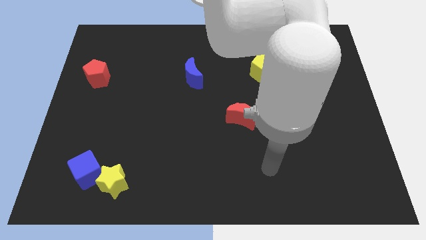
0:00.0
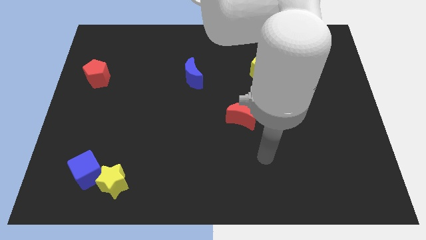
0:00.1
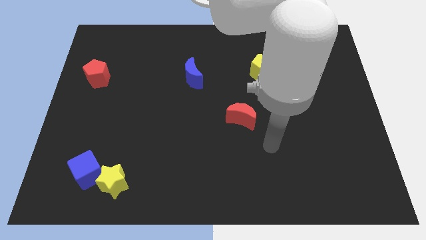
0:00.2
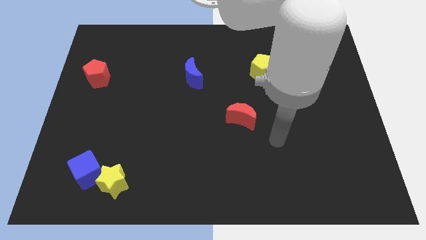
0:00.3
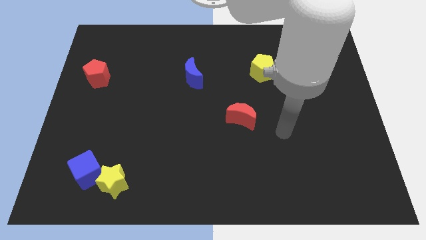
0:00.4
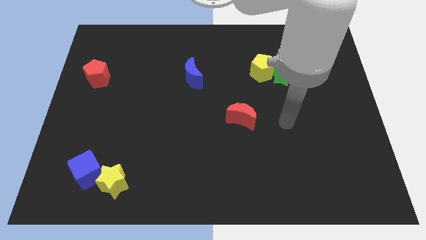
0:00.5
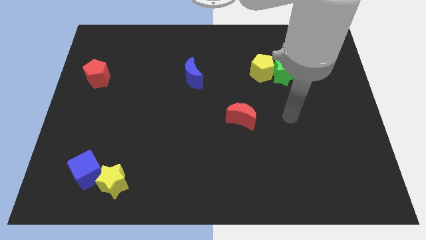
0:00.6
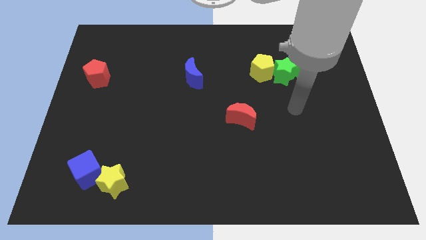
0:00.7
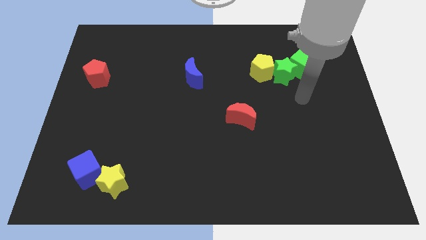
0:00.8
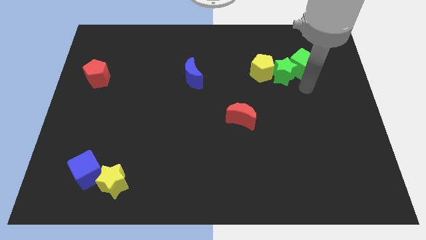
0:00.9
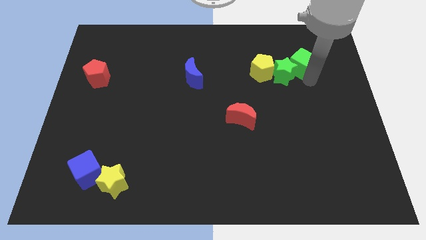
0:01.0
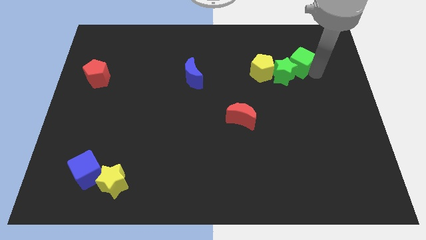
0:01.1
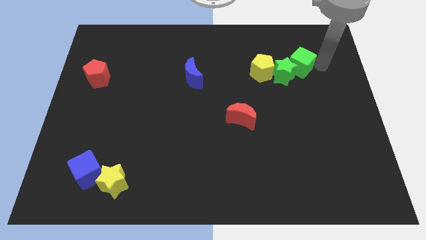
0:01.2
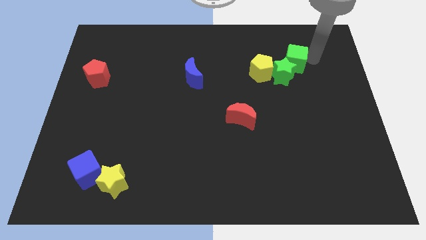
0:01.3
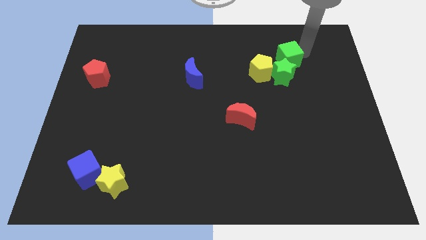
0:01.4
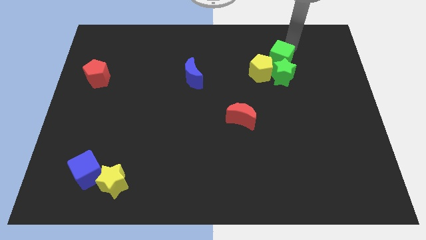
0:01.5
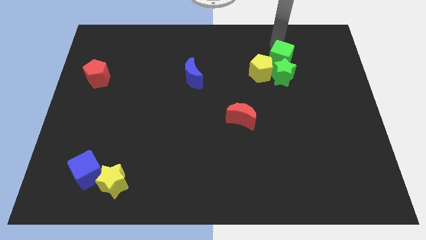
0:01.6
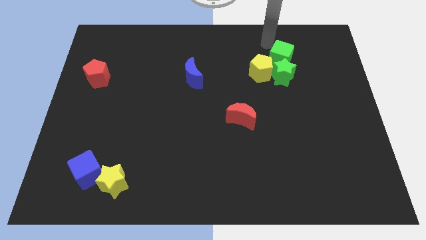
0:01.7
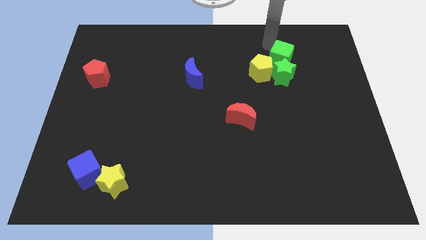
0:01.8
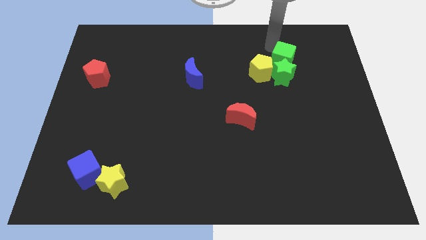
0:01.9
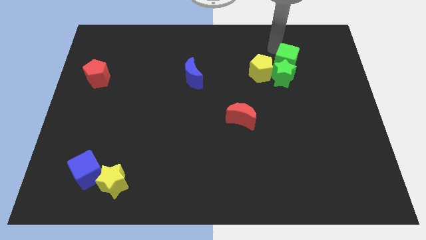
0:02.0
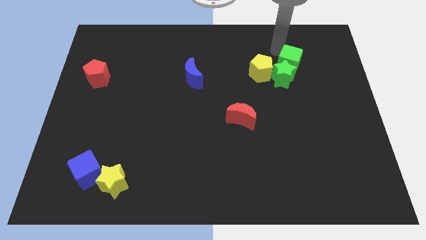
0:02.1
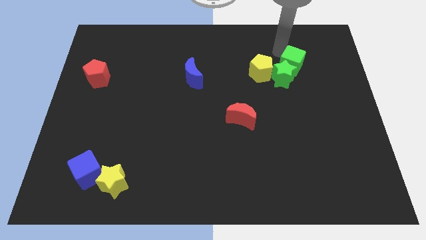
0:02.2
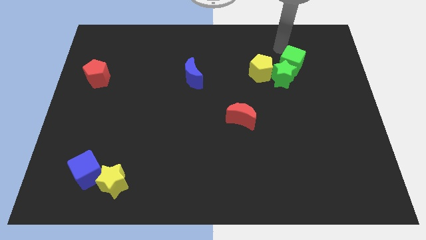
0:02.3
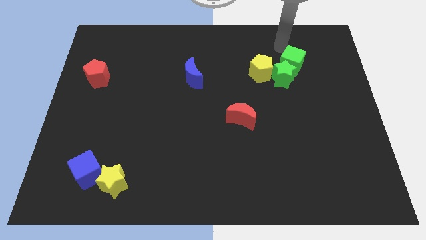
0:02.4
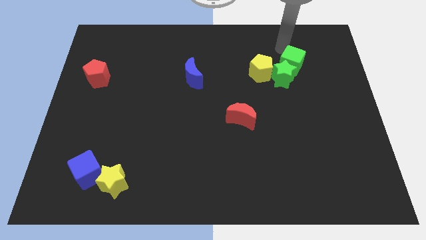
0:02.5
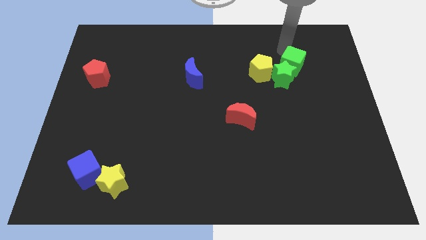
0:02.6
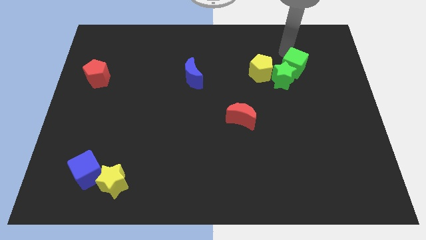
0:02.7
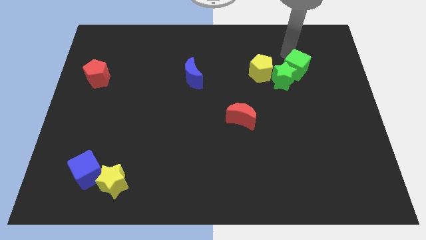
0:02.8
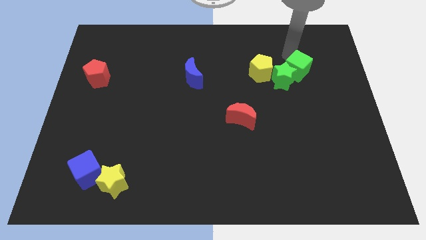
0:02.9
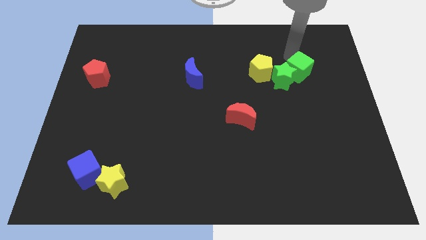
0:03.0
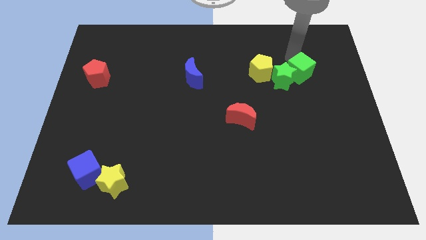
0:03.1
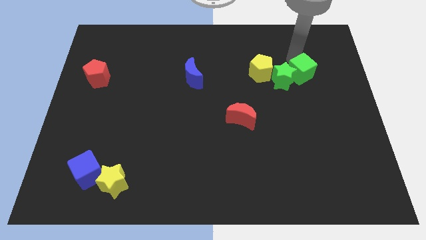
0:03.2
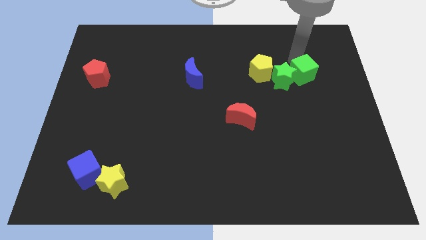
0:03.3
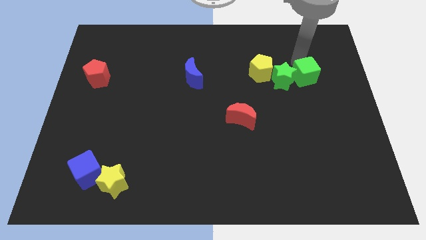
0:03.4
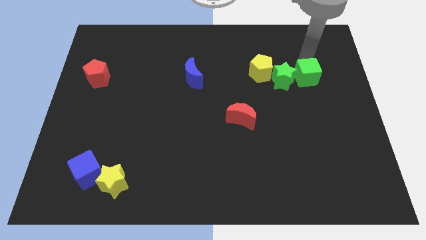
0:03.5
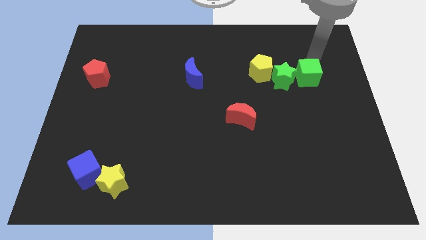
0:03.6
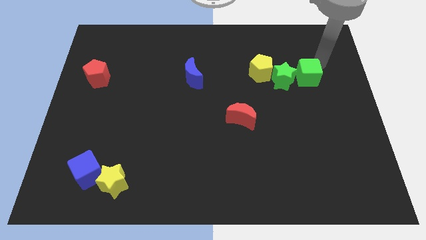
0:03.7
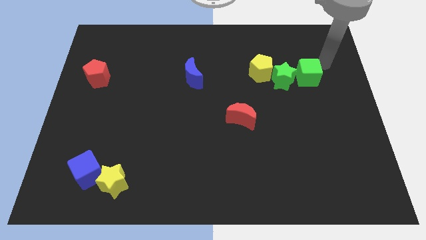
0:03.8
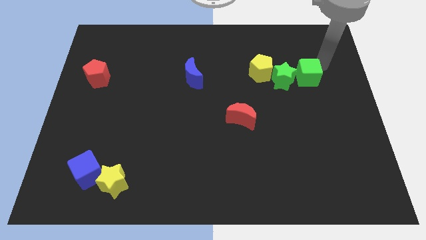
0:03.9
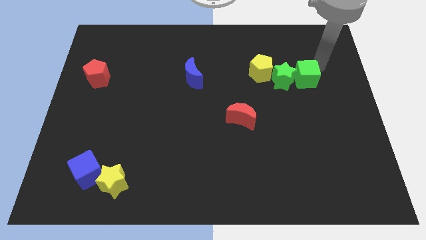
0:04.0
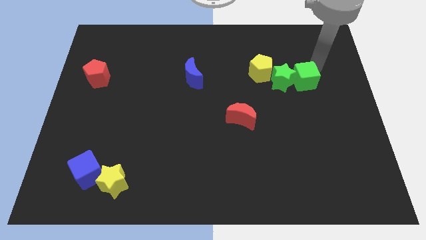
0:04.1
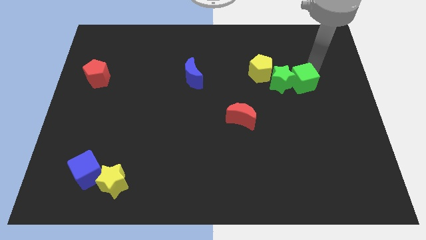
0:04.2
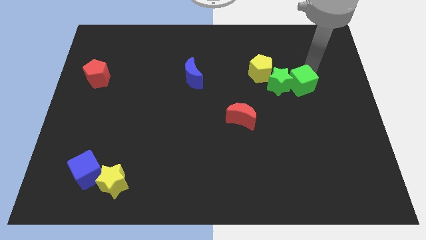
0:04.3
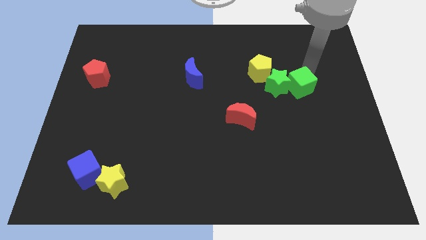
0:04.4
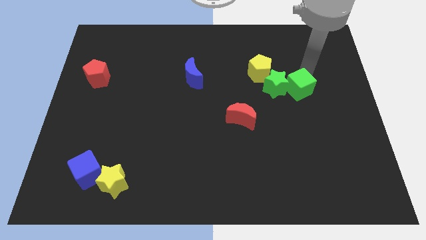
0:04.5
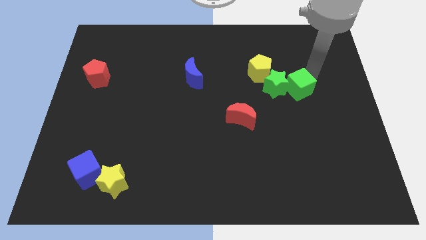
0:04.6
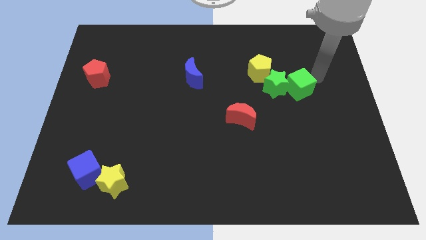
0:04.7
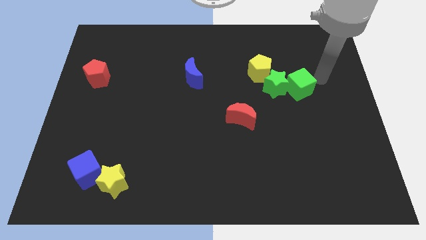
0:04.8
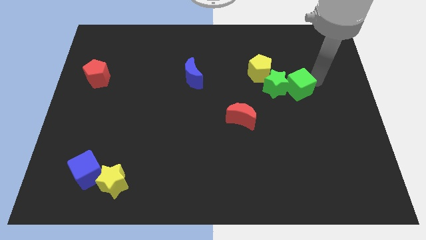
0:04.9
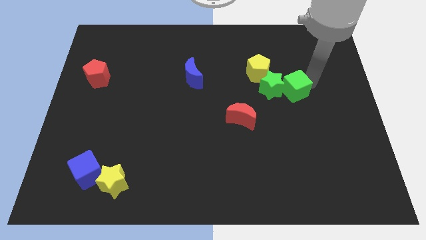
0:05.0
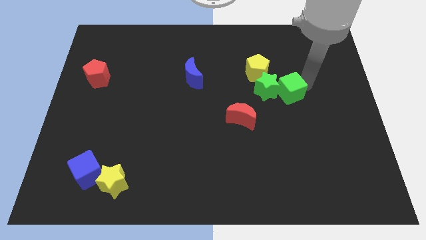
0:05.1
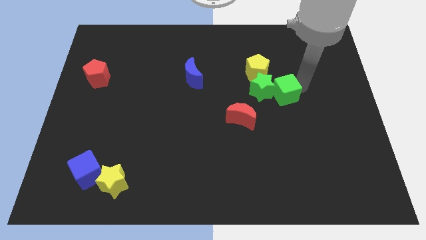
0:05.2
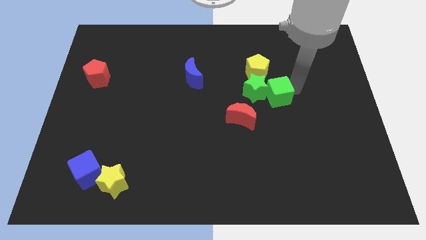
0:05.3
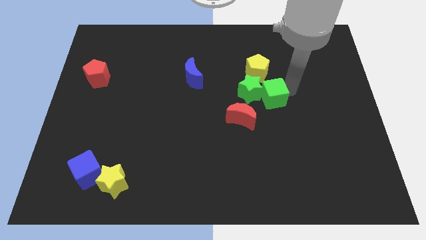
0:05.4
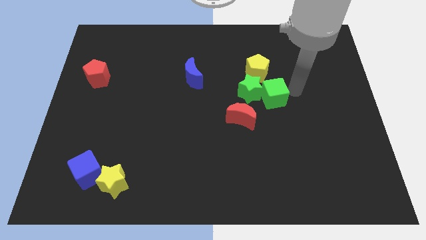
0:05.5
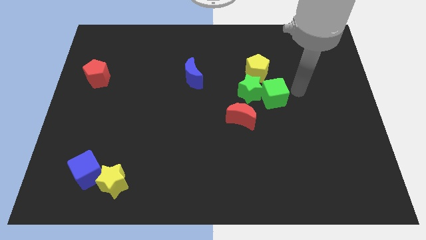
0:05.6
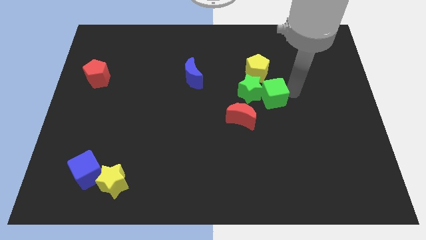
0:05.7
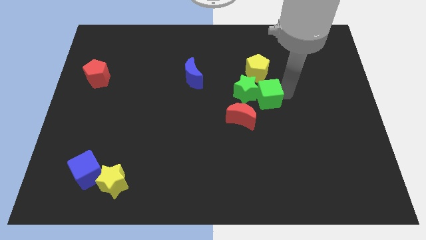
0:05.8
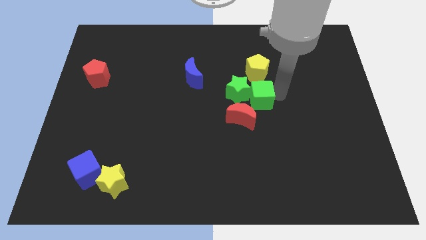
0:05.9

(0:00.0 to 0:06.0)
slide the green cube to the middle of the board

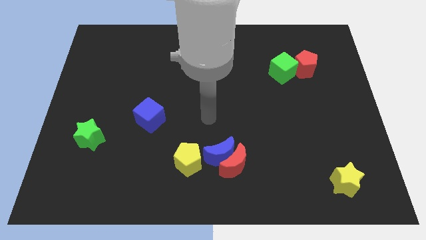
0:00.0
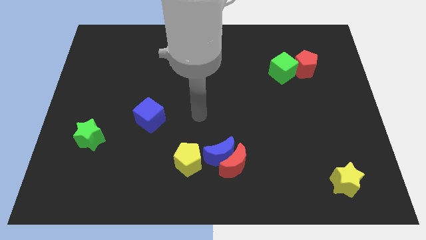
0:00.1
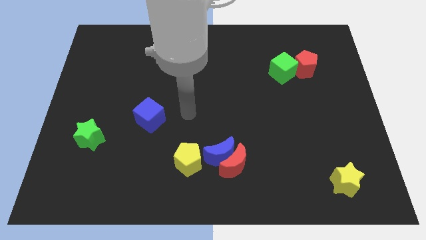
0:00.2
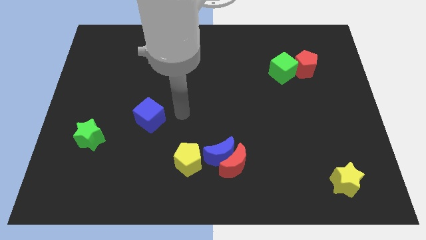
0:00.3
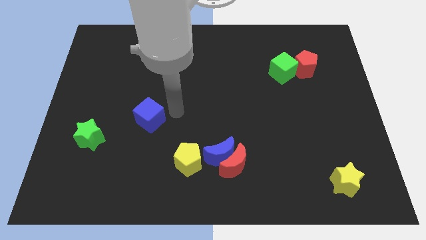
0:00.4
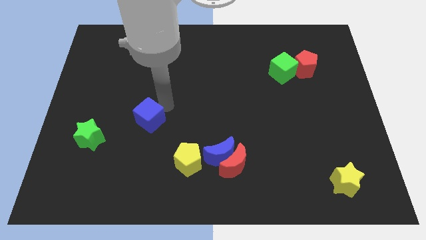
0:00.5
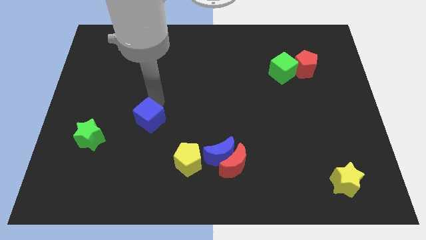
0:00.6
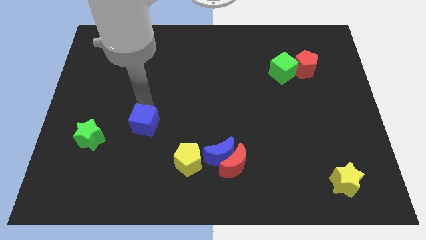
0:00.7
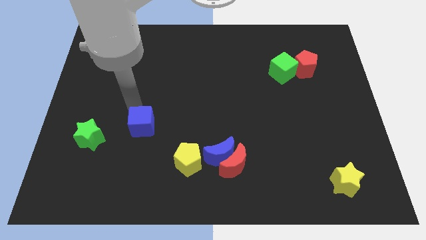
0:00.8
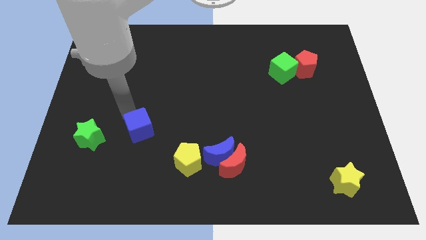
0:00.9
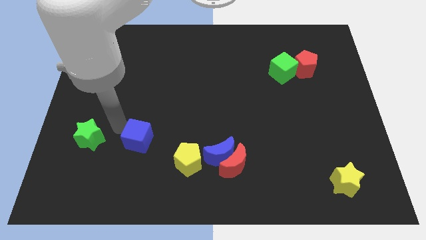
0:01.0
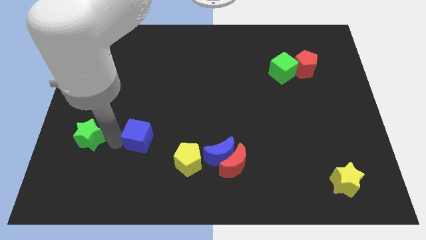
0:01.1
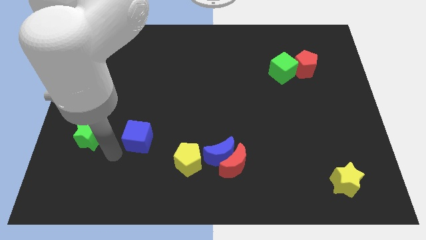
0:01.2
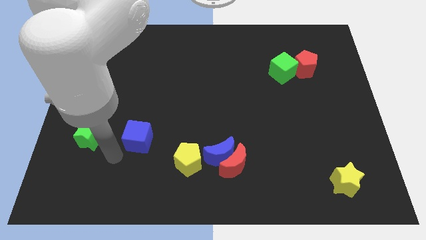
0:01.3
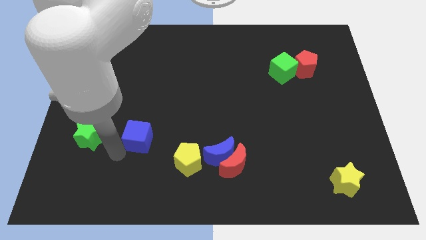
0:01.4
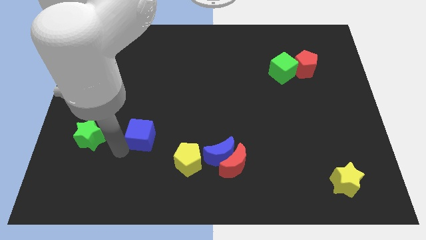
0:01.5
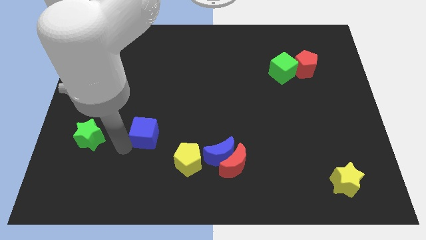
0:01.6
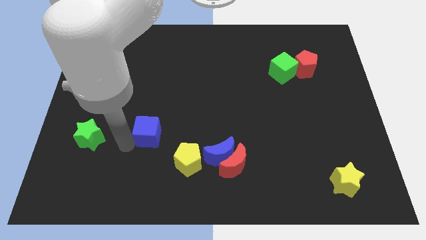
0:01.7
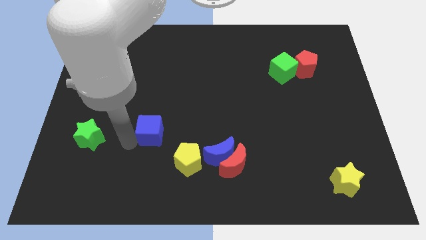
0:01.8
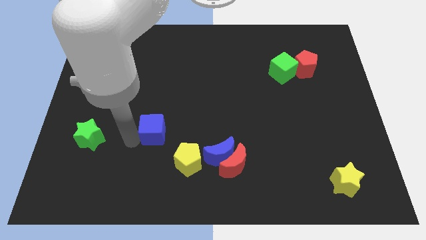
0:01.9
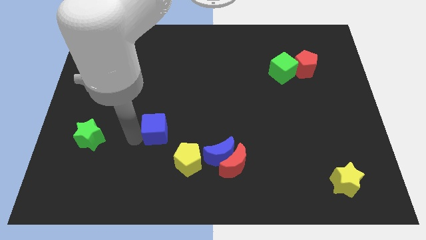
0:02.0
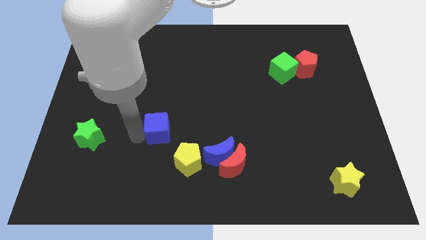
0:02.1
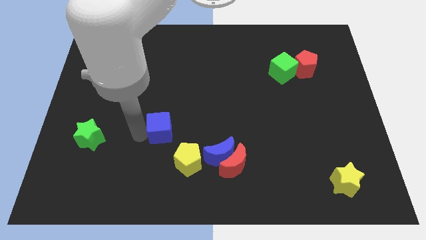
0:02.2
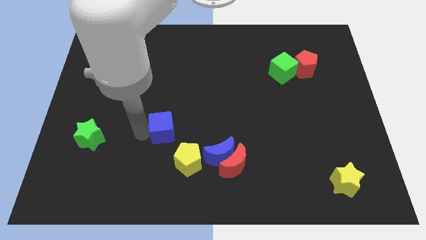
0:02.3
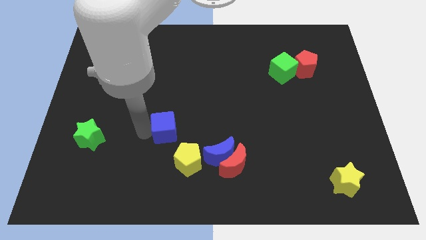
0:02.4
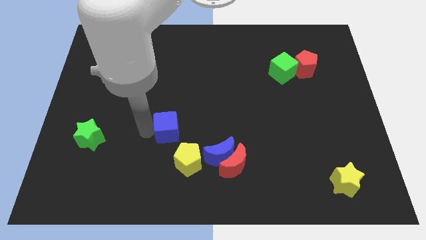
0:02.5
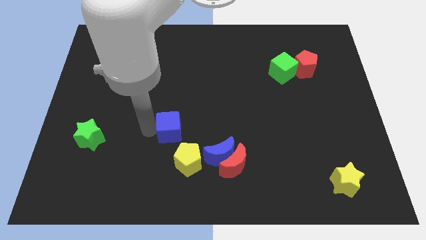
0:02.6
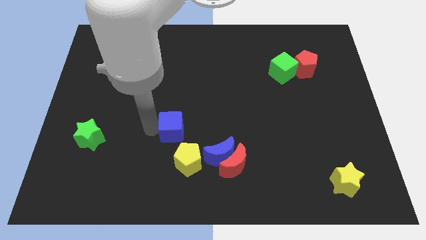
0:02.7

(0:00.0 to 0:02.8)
put the blue cube to the middle of the board
